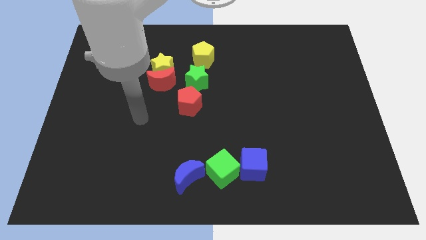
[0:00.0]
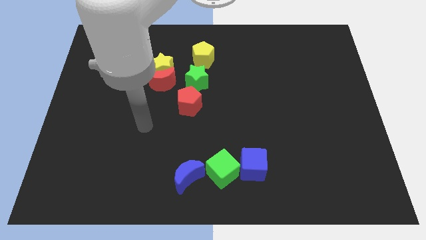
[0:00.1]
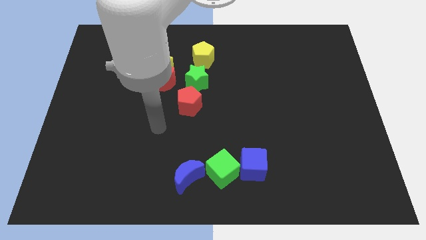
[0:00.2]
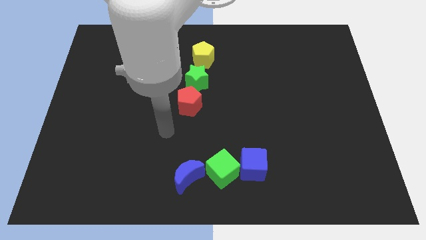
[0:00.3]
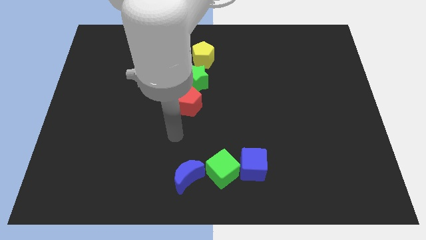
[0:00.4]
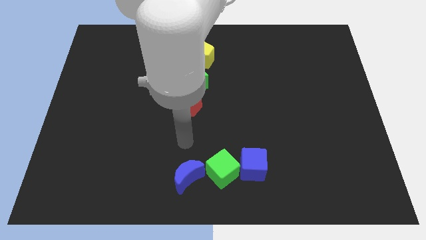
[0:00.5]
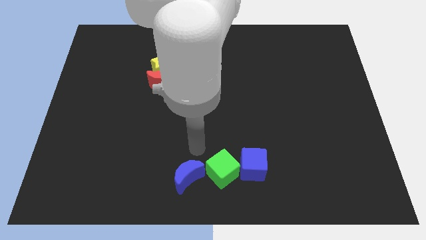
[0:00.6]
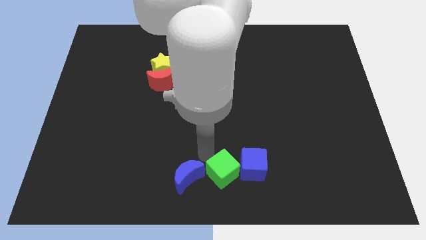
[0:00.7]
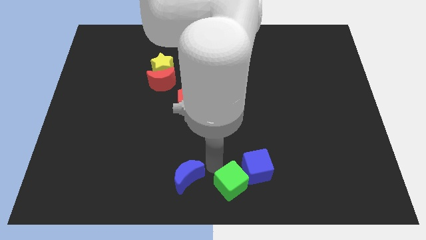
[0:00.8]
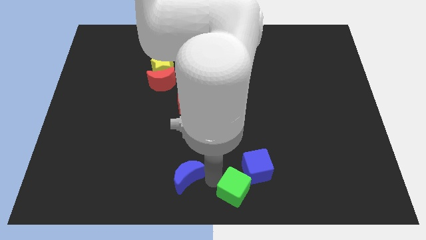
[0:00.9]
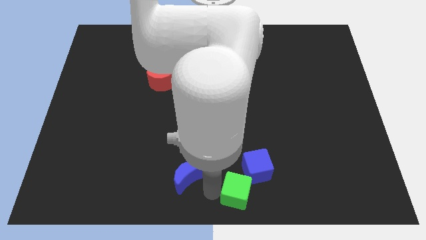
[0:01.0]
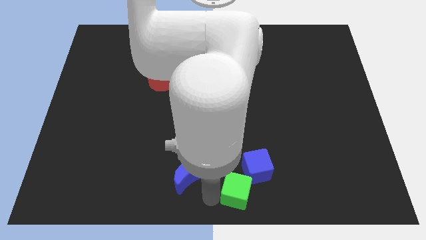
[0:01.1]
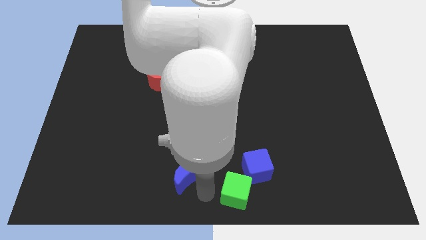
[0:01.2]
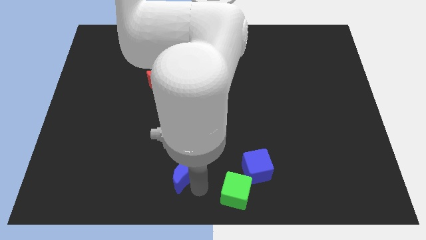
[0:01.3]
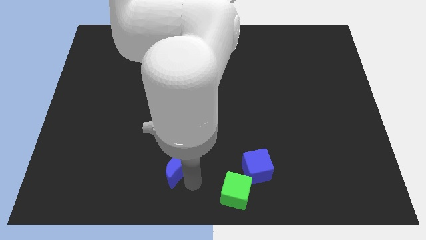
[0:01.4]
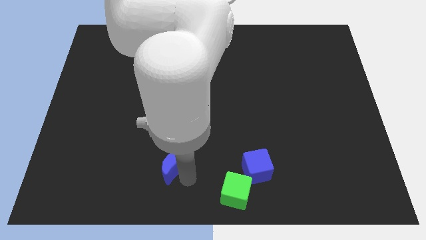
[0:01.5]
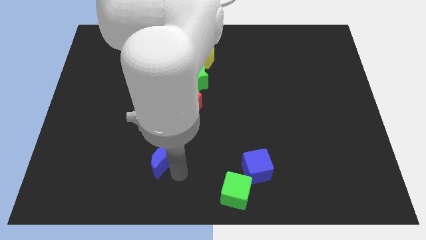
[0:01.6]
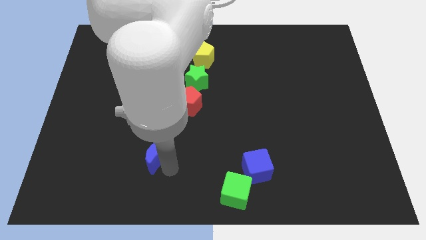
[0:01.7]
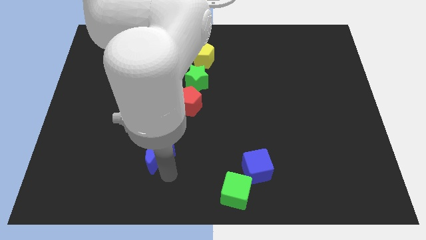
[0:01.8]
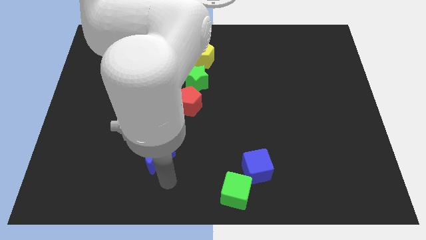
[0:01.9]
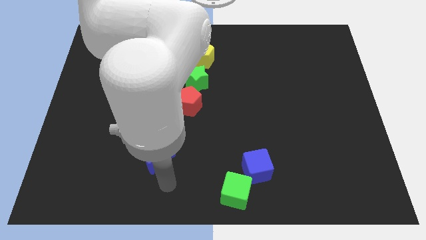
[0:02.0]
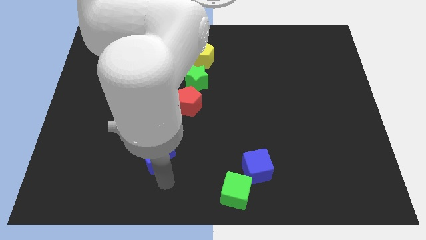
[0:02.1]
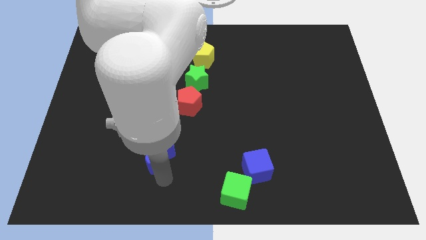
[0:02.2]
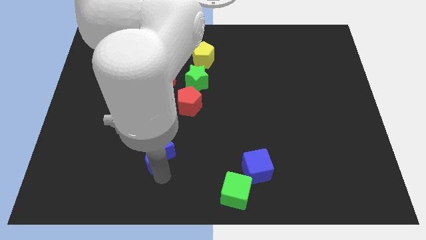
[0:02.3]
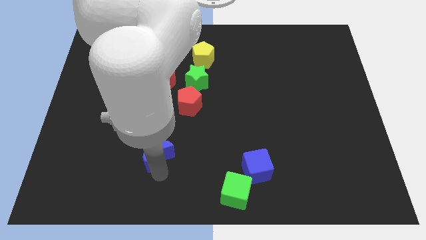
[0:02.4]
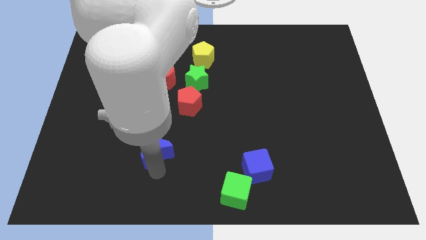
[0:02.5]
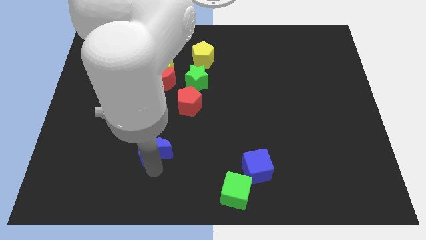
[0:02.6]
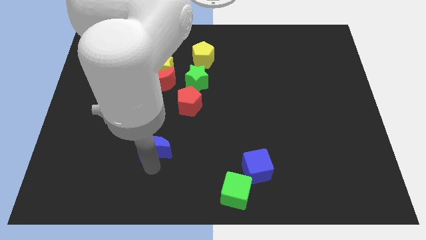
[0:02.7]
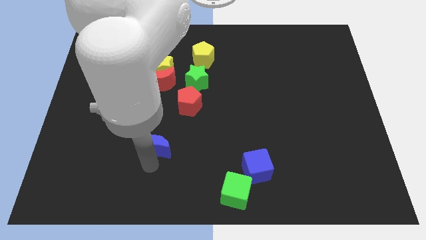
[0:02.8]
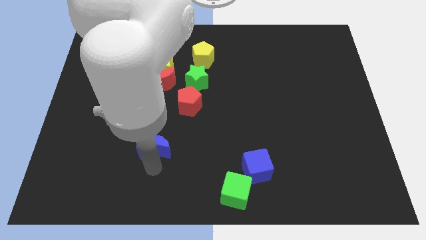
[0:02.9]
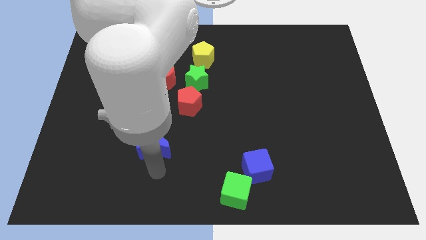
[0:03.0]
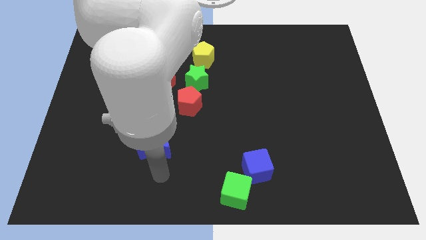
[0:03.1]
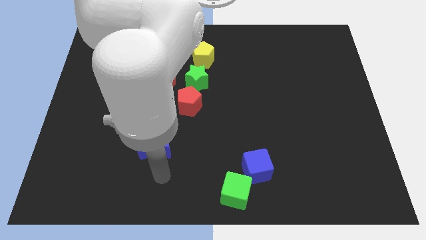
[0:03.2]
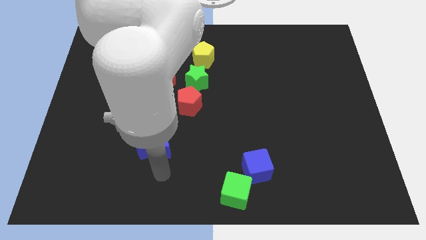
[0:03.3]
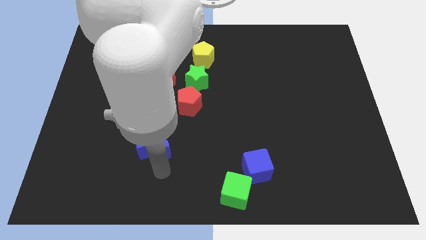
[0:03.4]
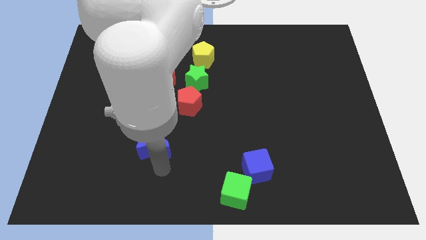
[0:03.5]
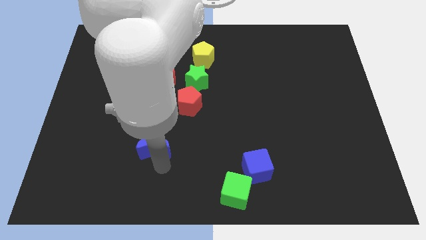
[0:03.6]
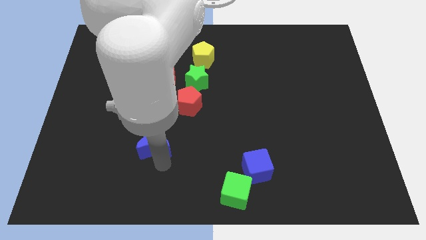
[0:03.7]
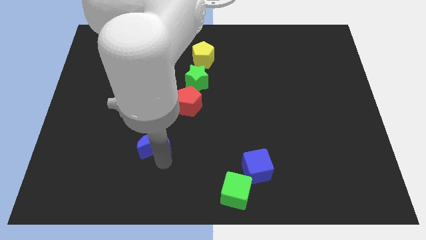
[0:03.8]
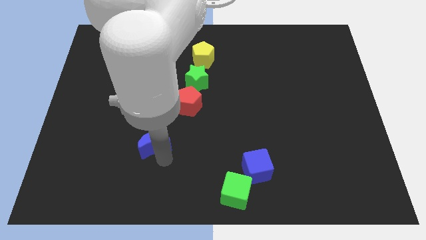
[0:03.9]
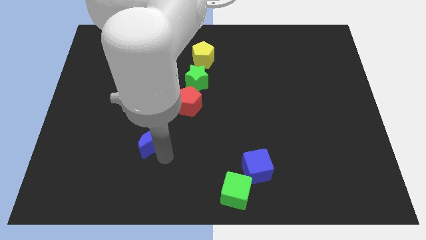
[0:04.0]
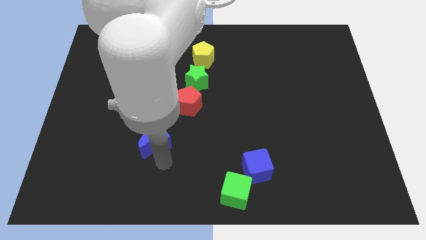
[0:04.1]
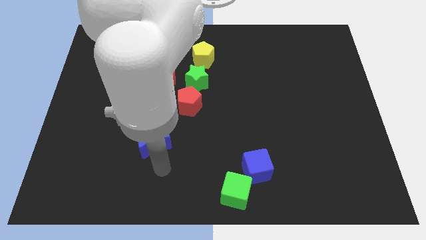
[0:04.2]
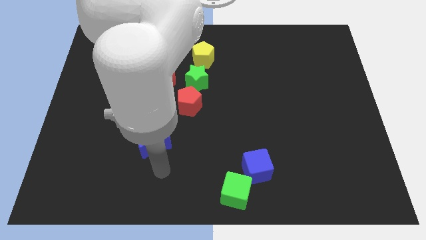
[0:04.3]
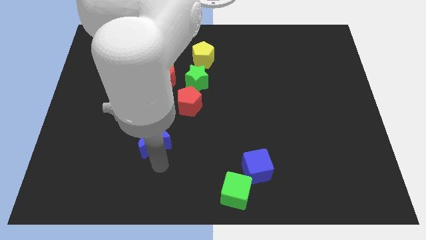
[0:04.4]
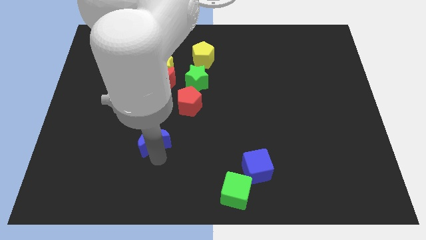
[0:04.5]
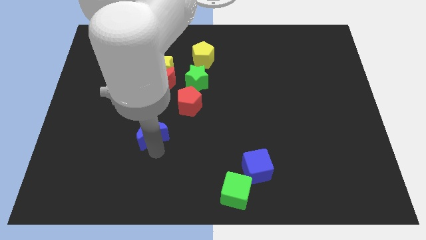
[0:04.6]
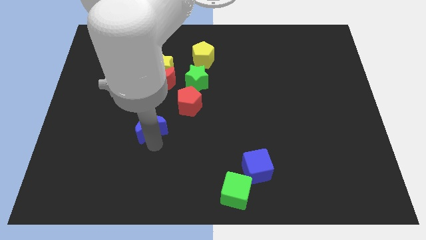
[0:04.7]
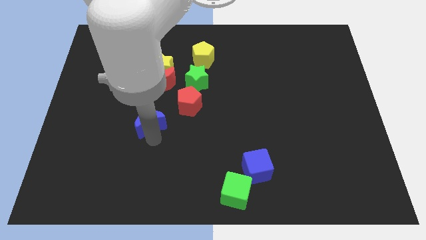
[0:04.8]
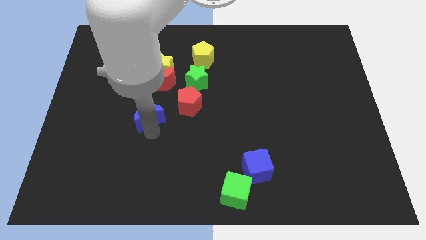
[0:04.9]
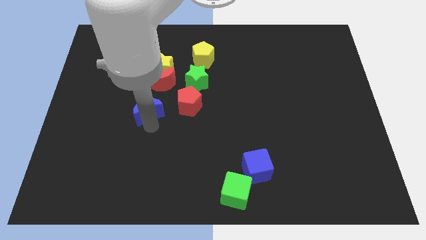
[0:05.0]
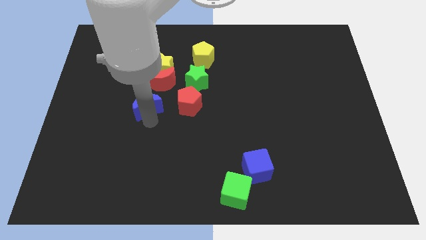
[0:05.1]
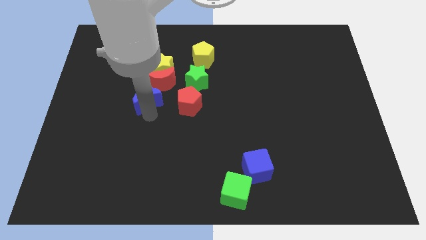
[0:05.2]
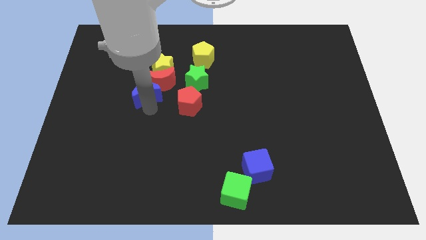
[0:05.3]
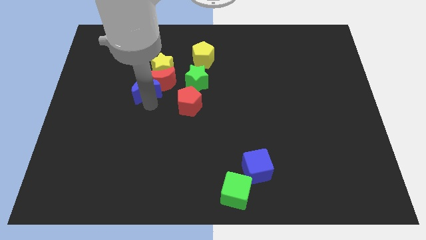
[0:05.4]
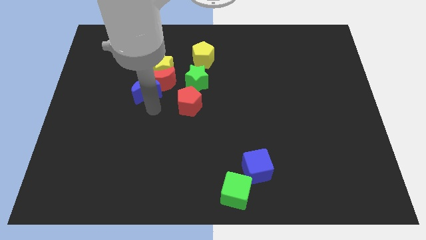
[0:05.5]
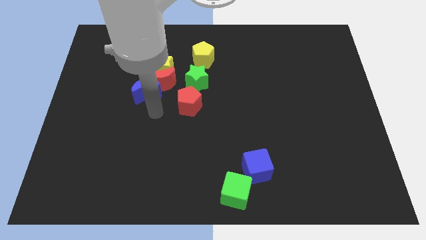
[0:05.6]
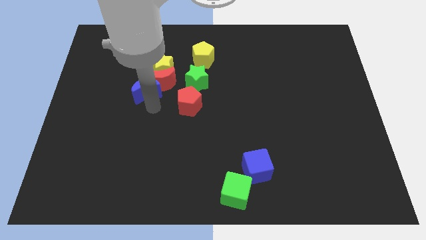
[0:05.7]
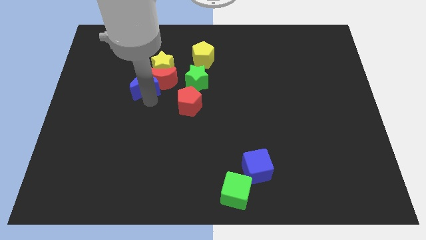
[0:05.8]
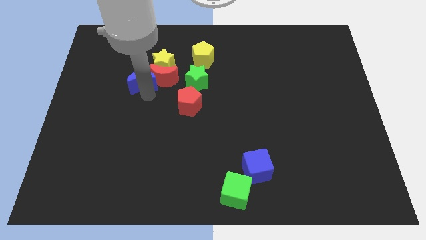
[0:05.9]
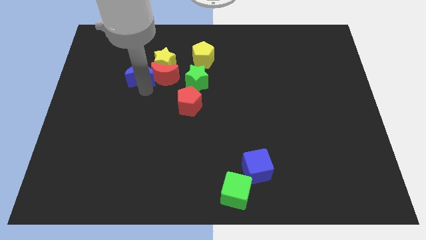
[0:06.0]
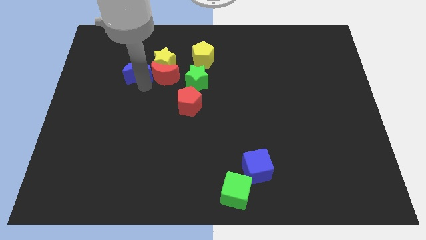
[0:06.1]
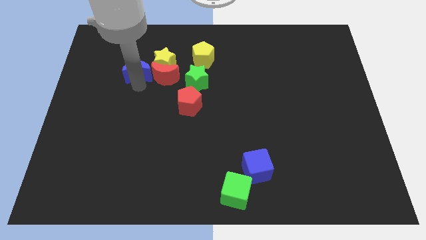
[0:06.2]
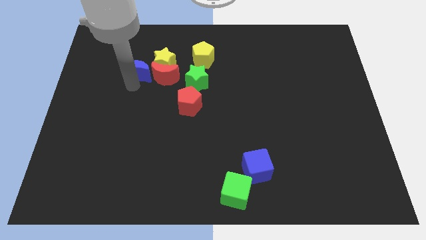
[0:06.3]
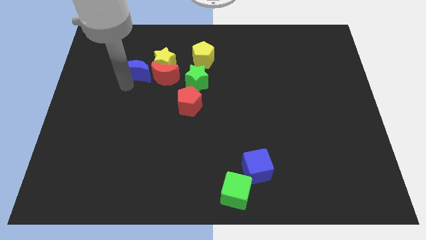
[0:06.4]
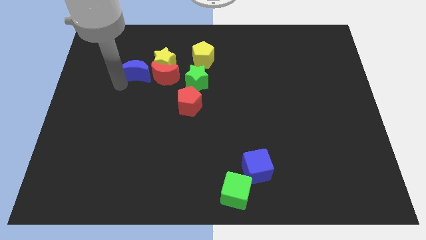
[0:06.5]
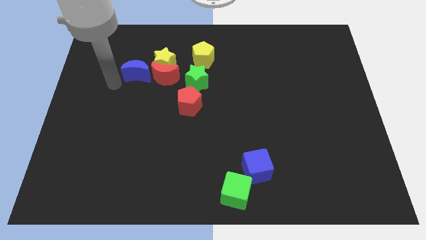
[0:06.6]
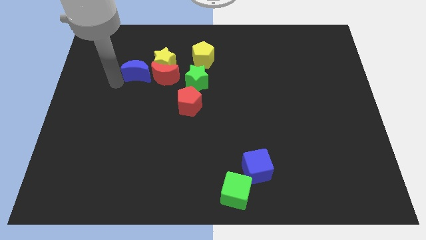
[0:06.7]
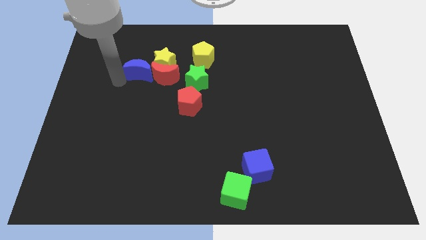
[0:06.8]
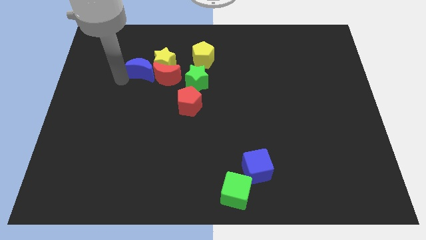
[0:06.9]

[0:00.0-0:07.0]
move the blue moon next to the yellow star

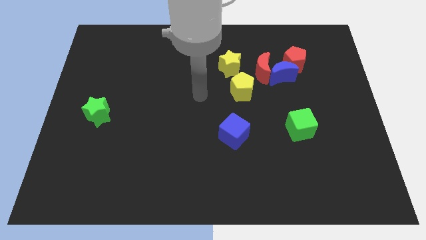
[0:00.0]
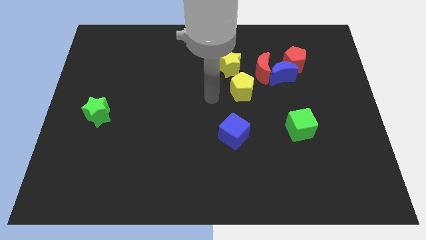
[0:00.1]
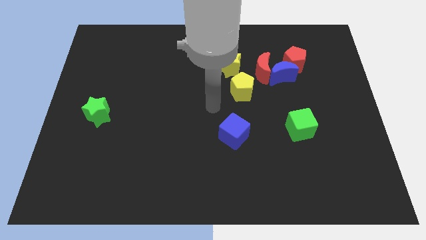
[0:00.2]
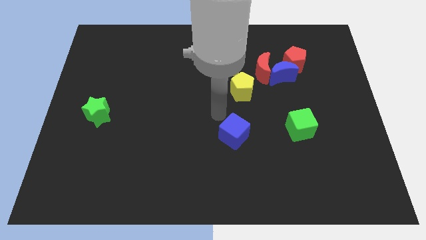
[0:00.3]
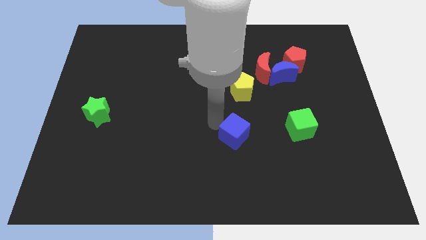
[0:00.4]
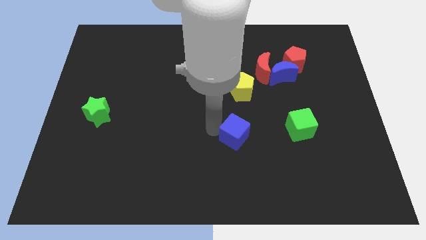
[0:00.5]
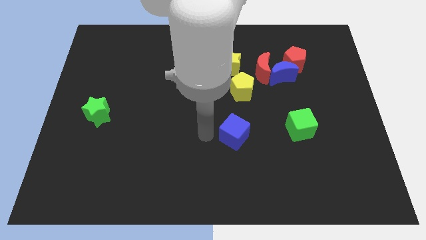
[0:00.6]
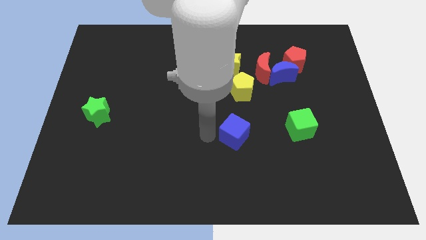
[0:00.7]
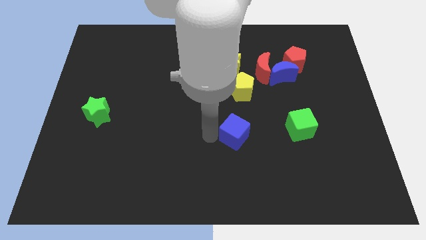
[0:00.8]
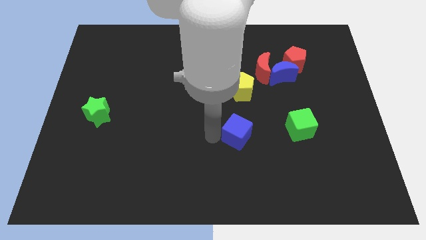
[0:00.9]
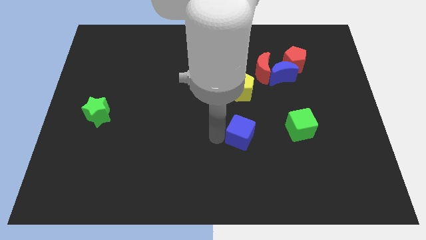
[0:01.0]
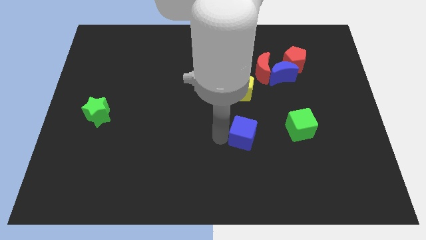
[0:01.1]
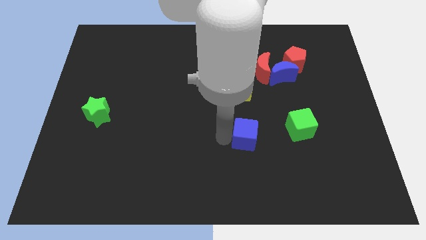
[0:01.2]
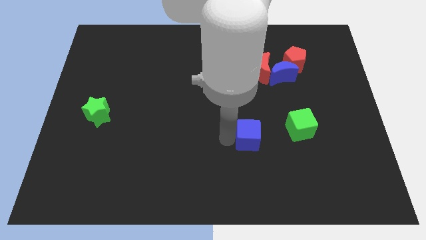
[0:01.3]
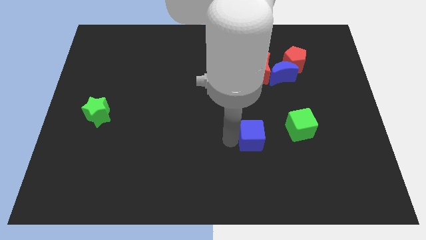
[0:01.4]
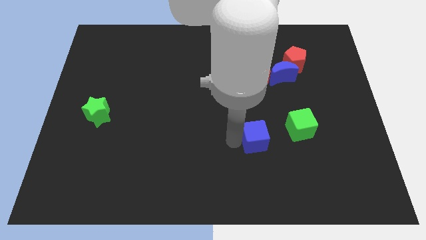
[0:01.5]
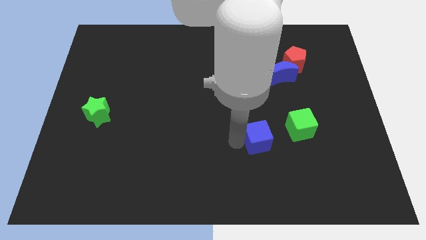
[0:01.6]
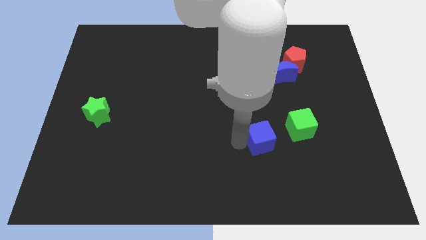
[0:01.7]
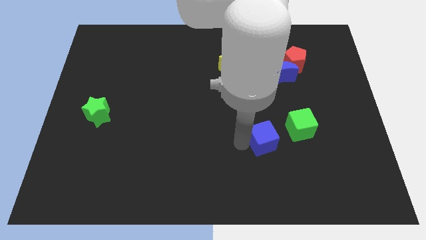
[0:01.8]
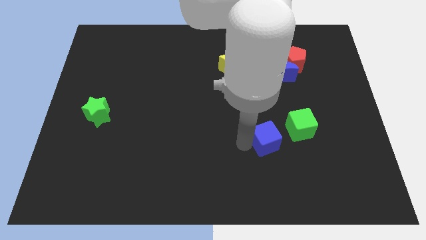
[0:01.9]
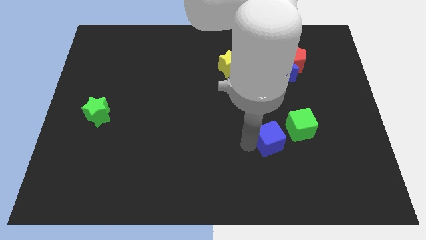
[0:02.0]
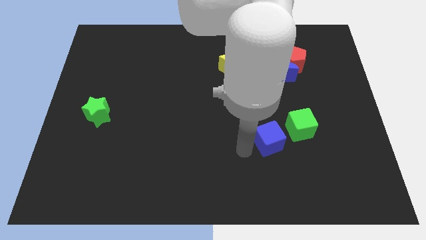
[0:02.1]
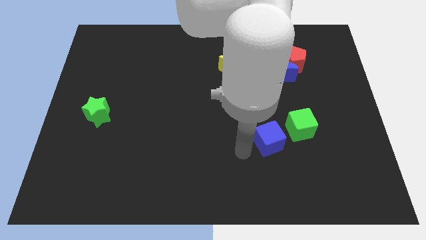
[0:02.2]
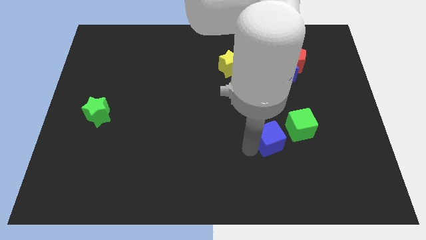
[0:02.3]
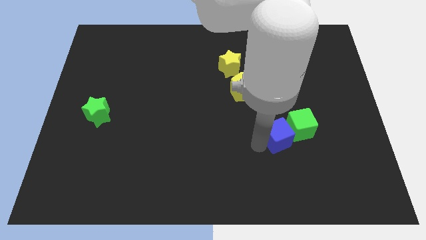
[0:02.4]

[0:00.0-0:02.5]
slide the blue cube next to the green cube
